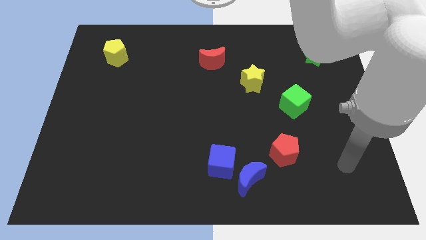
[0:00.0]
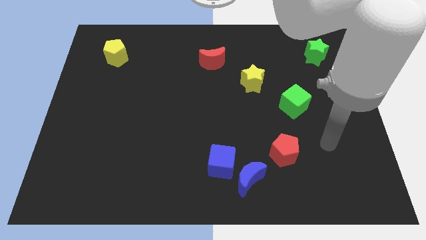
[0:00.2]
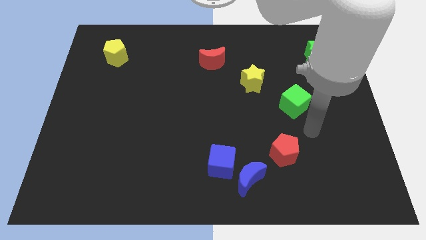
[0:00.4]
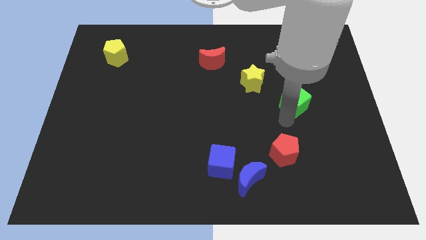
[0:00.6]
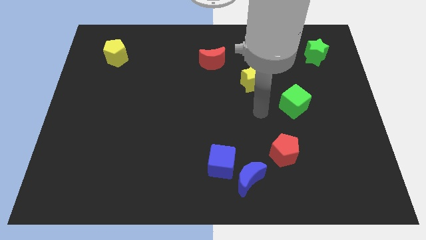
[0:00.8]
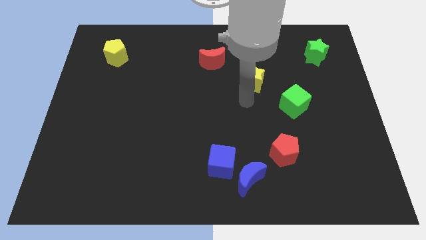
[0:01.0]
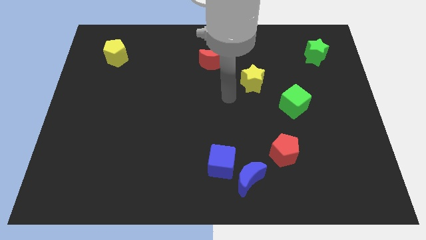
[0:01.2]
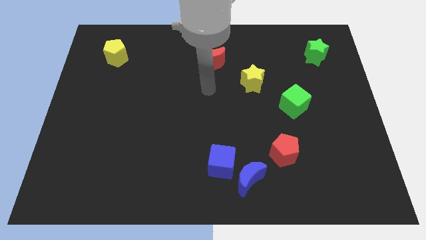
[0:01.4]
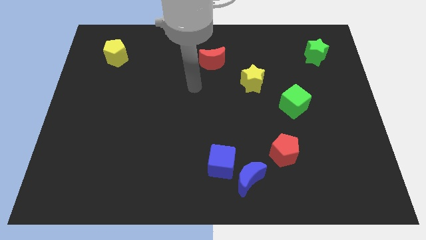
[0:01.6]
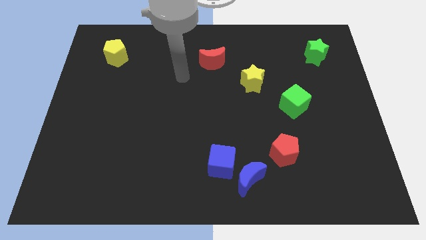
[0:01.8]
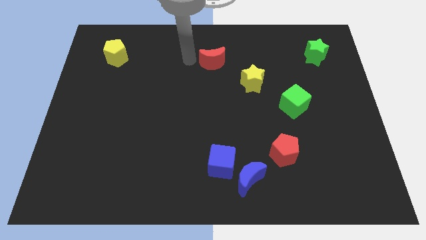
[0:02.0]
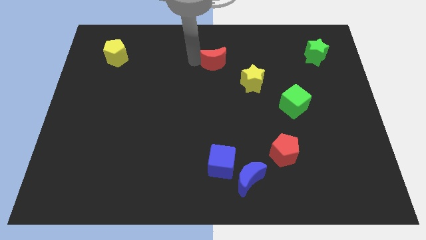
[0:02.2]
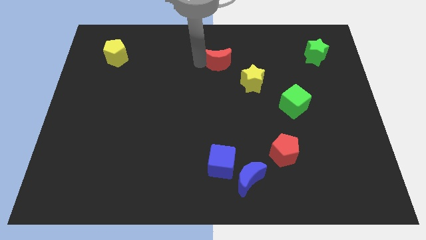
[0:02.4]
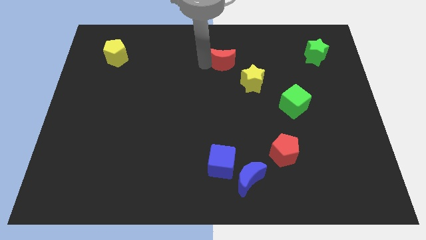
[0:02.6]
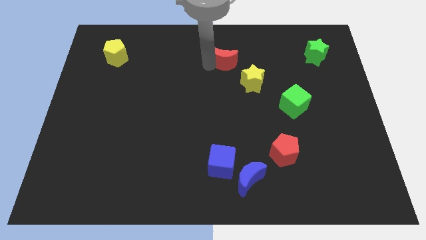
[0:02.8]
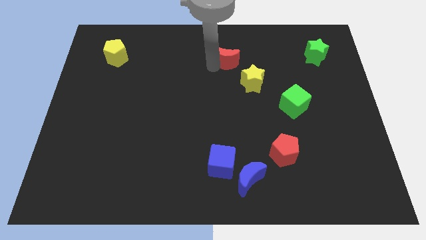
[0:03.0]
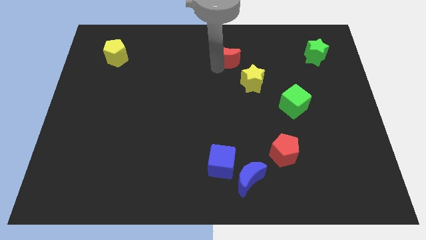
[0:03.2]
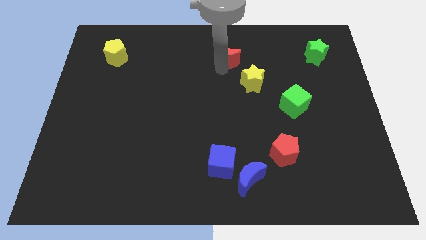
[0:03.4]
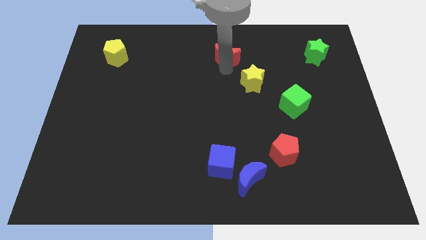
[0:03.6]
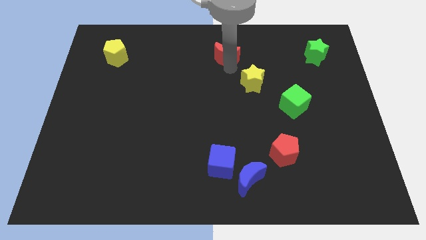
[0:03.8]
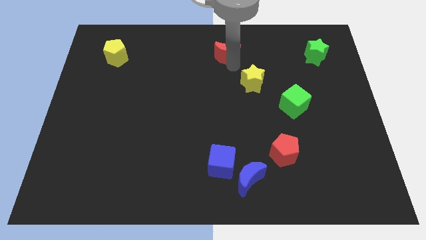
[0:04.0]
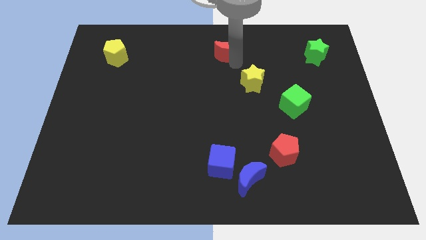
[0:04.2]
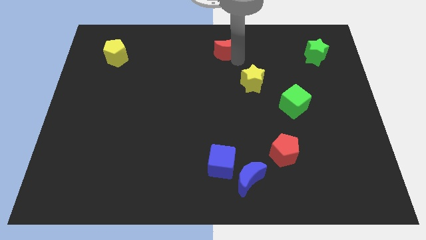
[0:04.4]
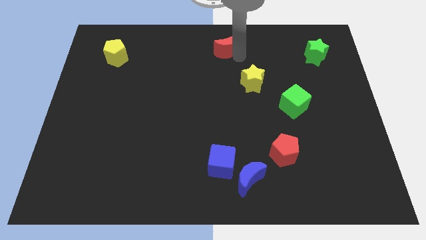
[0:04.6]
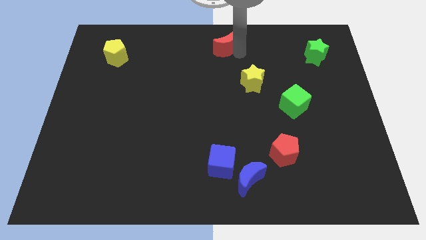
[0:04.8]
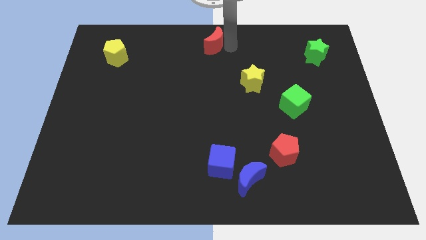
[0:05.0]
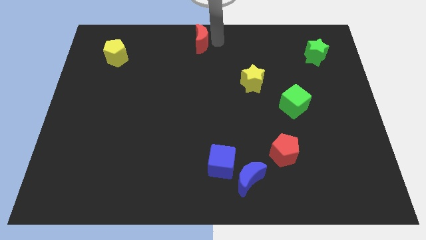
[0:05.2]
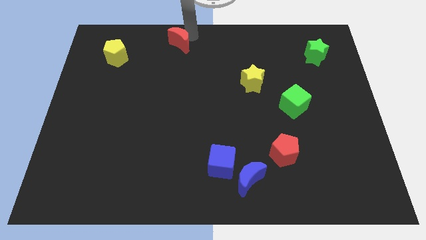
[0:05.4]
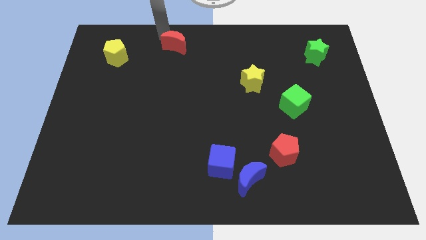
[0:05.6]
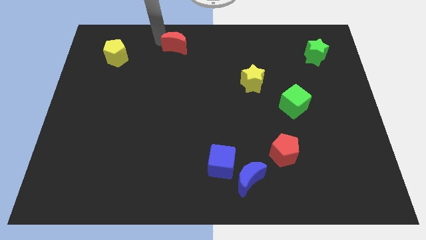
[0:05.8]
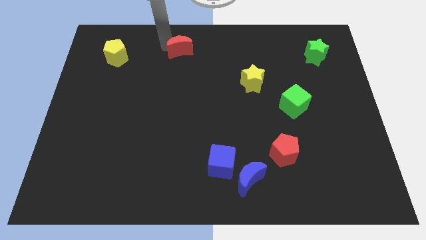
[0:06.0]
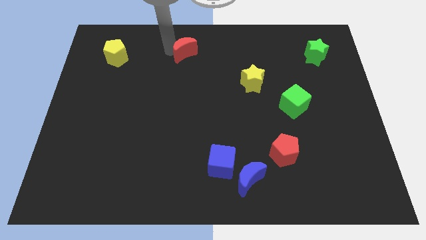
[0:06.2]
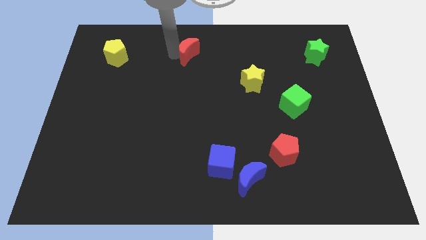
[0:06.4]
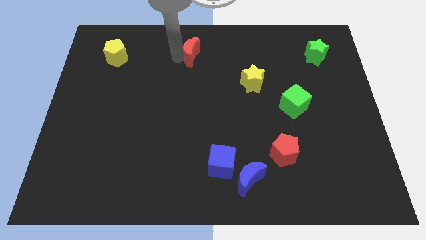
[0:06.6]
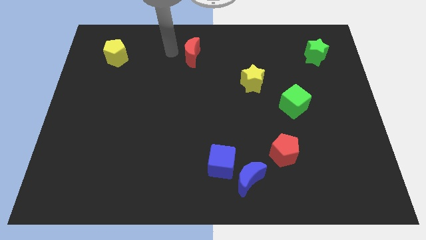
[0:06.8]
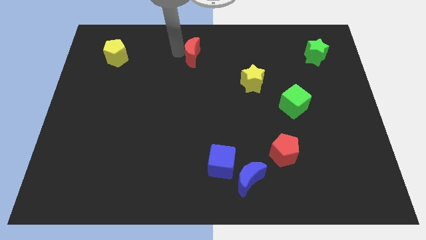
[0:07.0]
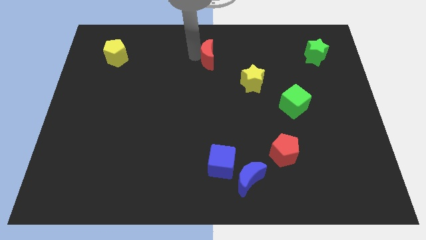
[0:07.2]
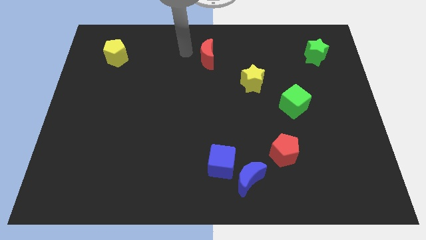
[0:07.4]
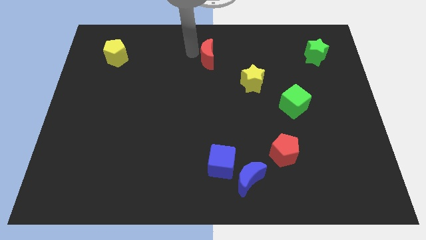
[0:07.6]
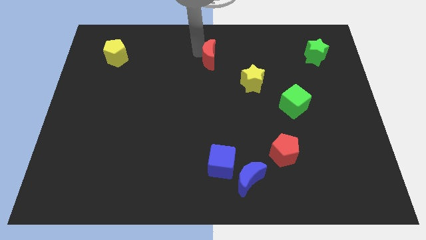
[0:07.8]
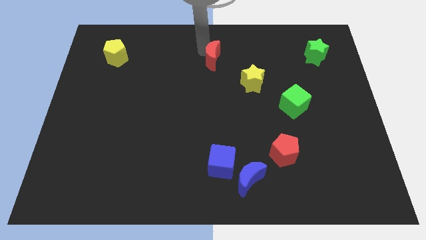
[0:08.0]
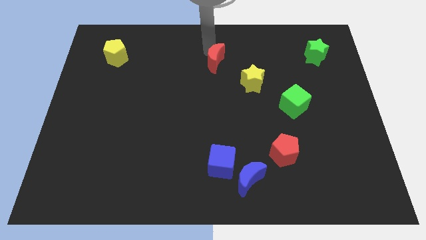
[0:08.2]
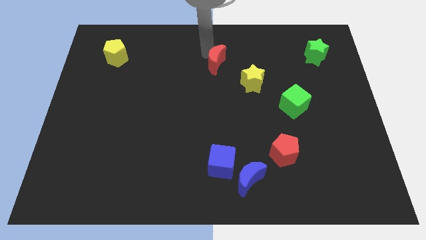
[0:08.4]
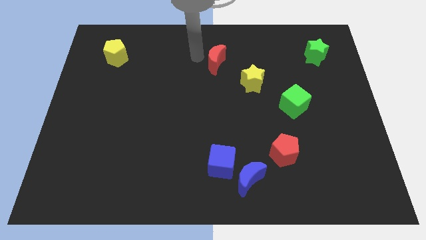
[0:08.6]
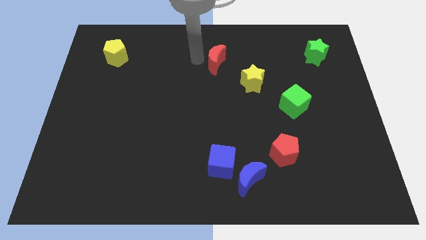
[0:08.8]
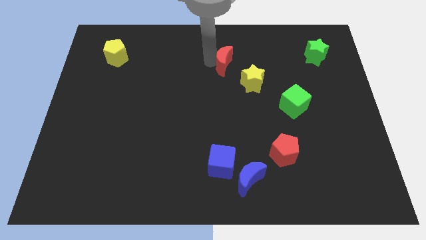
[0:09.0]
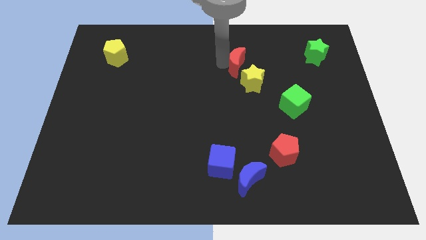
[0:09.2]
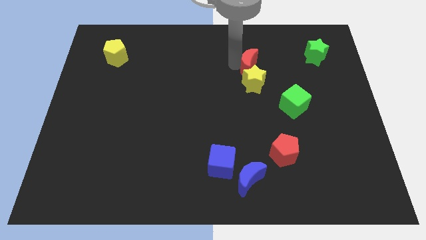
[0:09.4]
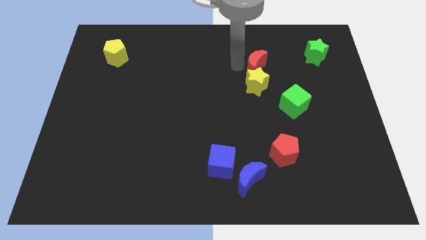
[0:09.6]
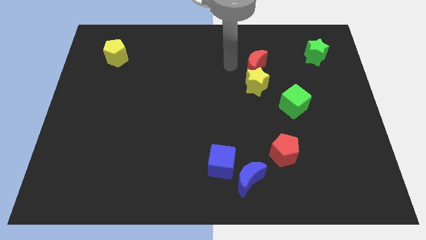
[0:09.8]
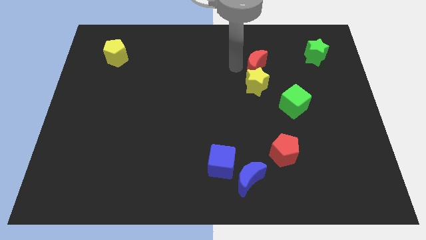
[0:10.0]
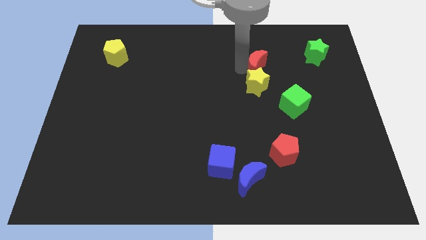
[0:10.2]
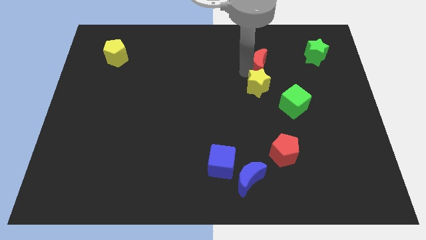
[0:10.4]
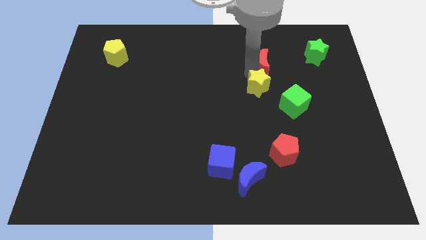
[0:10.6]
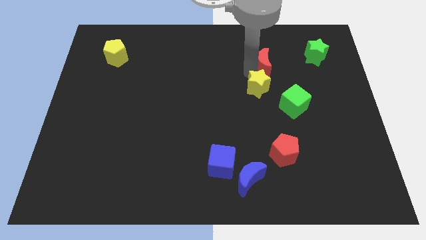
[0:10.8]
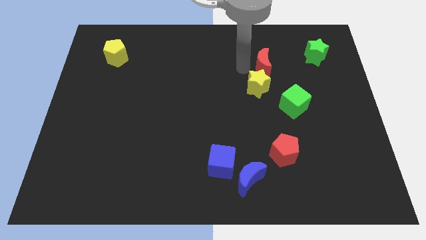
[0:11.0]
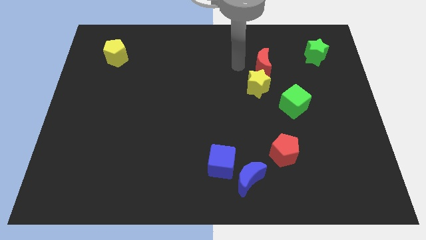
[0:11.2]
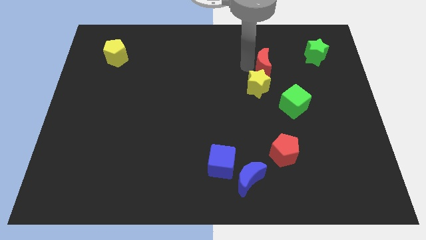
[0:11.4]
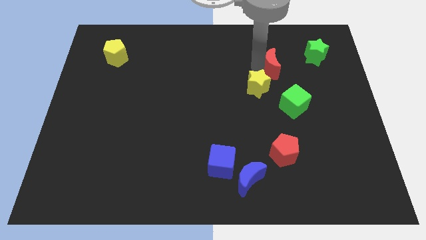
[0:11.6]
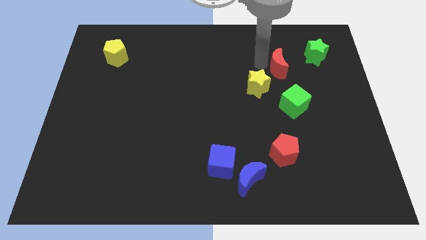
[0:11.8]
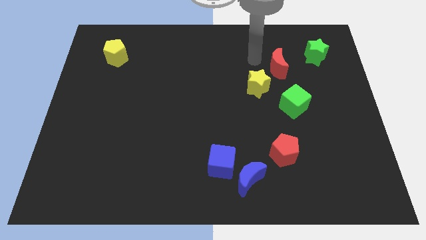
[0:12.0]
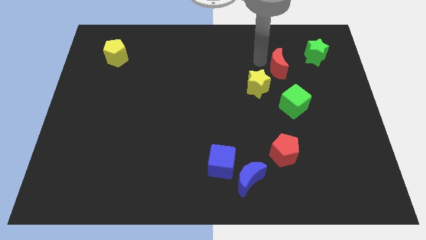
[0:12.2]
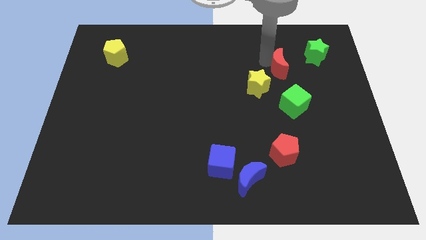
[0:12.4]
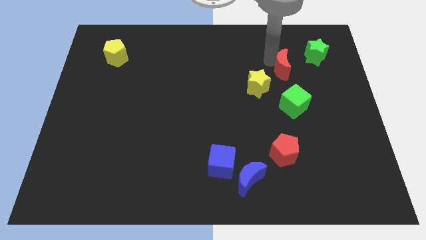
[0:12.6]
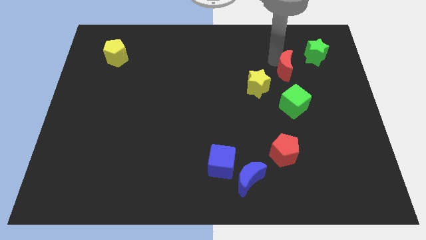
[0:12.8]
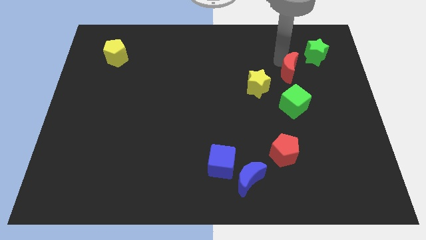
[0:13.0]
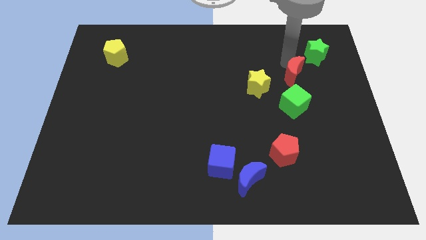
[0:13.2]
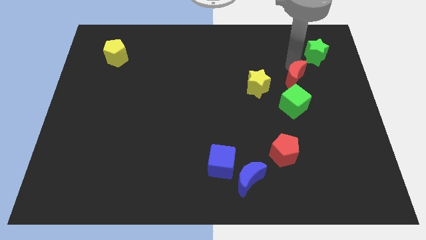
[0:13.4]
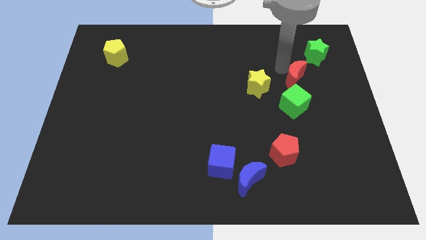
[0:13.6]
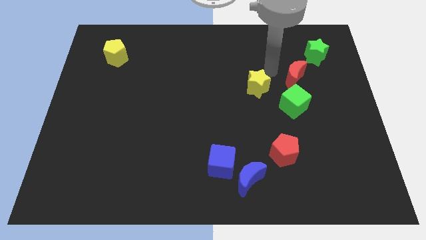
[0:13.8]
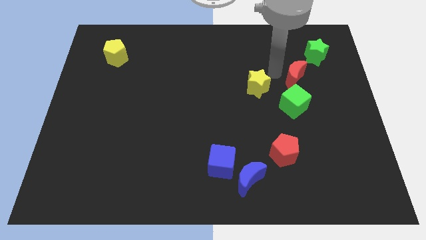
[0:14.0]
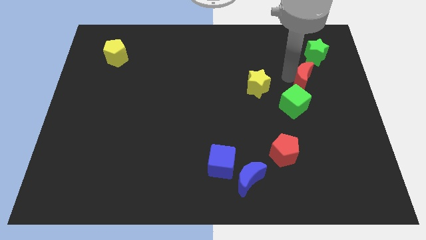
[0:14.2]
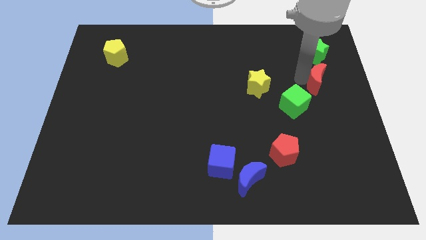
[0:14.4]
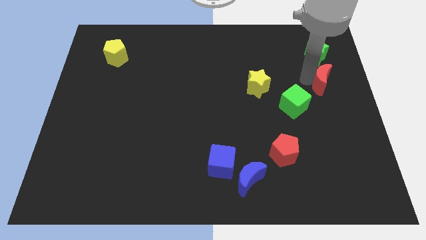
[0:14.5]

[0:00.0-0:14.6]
move the red moon to the right side

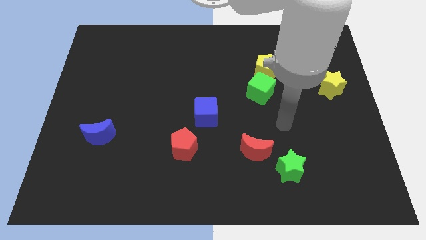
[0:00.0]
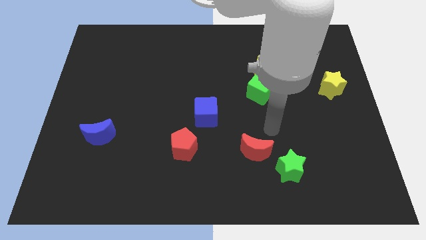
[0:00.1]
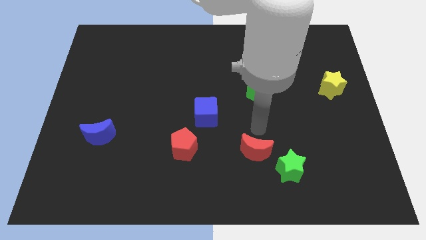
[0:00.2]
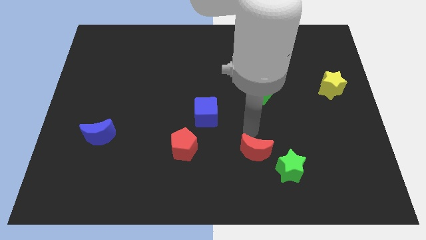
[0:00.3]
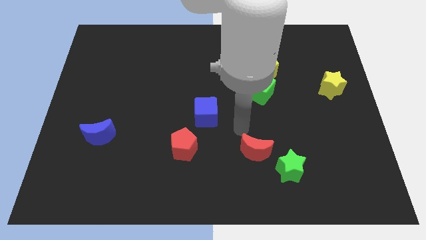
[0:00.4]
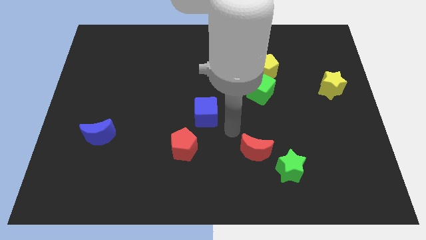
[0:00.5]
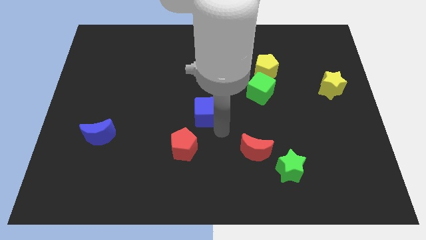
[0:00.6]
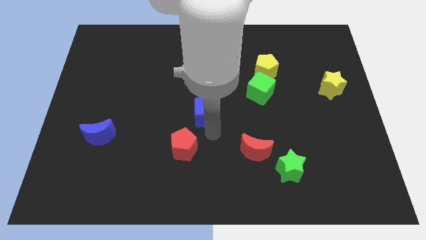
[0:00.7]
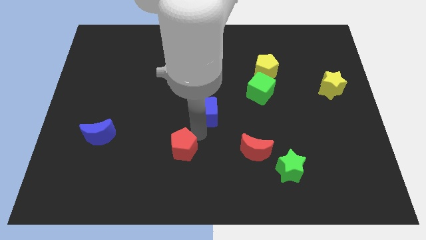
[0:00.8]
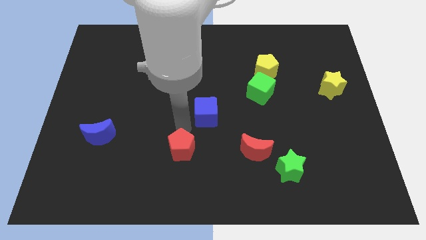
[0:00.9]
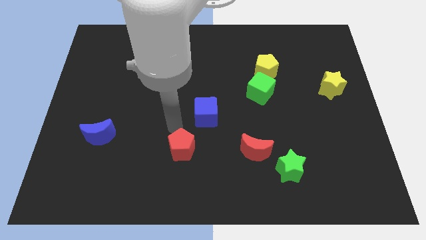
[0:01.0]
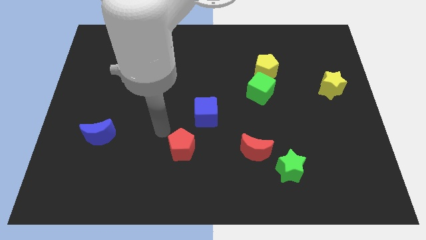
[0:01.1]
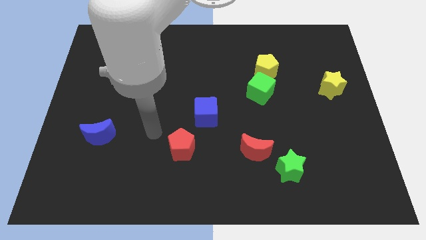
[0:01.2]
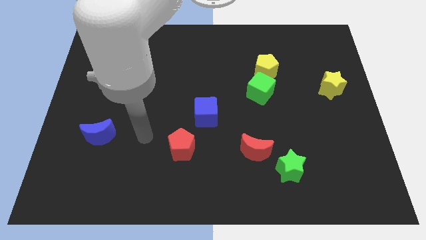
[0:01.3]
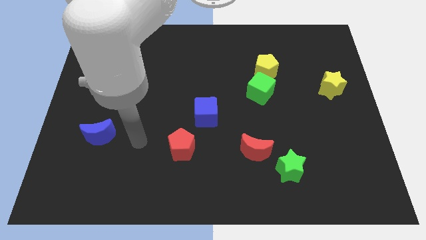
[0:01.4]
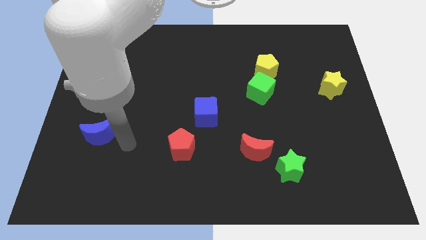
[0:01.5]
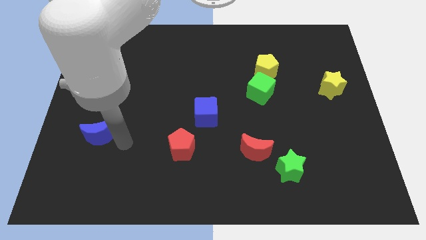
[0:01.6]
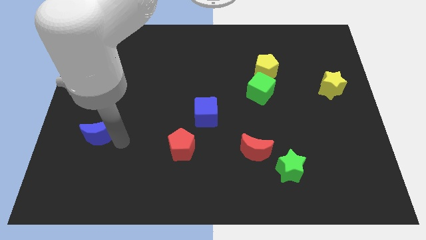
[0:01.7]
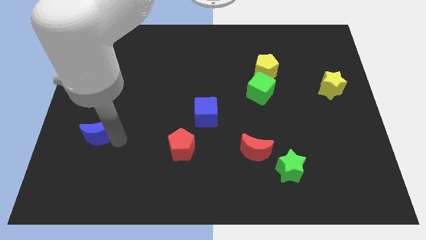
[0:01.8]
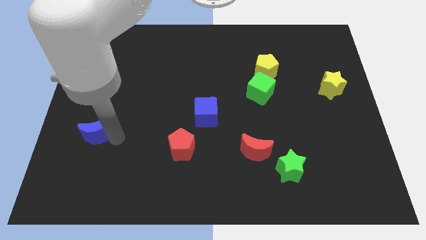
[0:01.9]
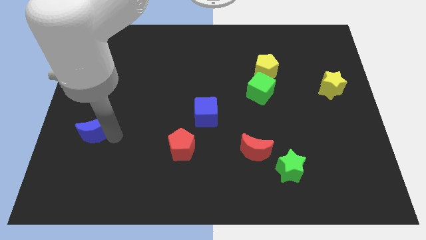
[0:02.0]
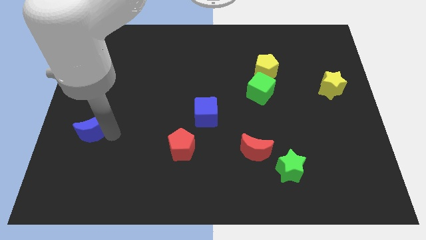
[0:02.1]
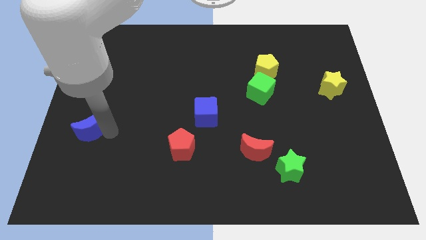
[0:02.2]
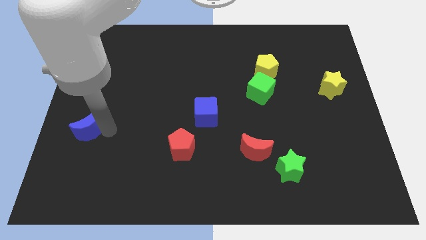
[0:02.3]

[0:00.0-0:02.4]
slide the blue moon to the center left
